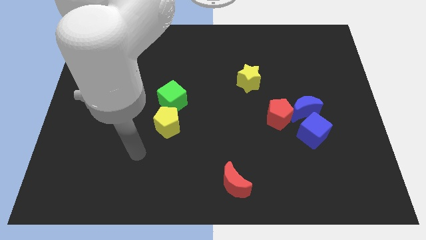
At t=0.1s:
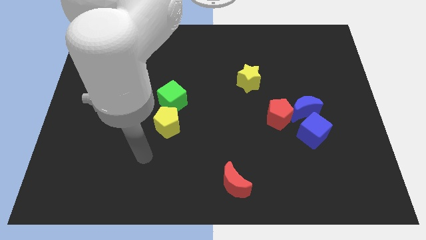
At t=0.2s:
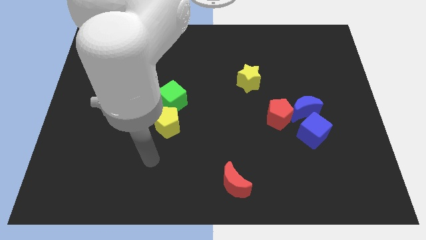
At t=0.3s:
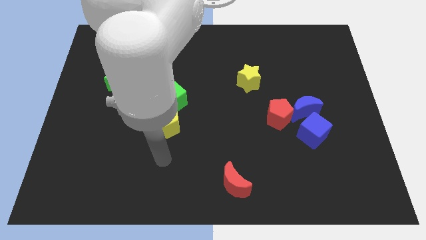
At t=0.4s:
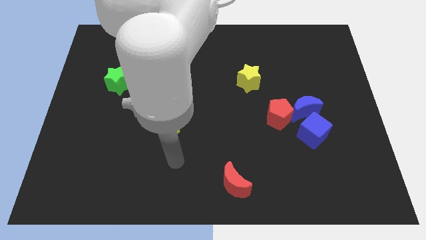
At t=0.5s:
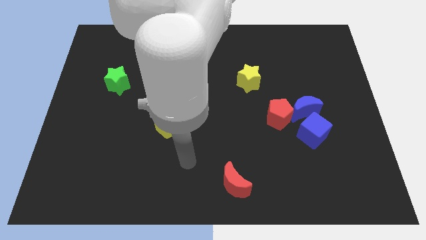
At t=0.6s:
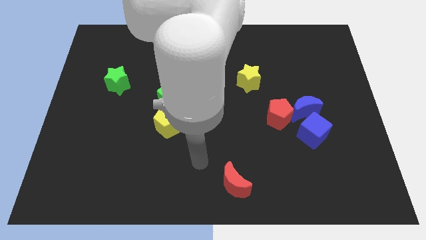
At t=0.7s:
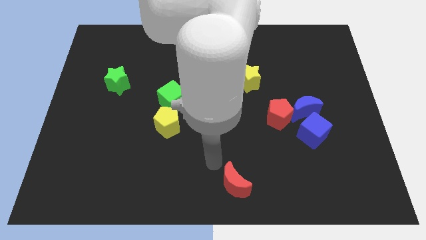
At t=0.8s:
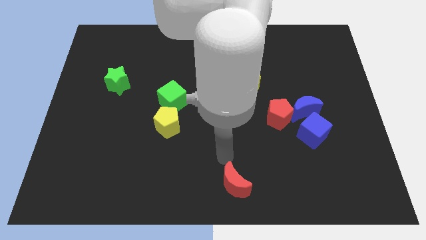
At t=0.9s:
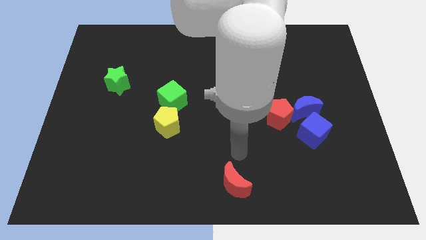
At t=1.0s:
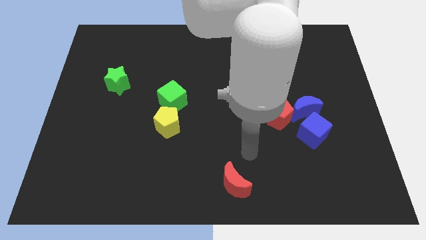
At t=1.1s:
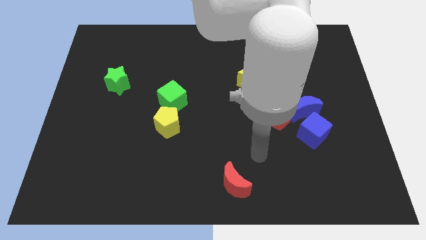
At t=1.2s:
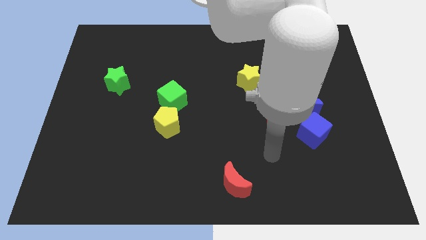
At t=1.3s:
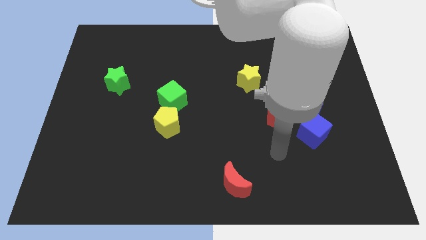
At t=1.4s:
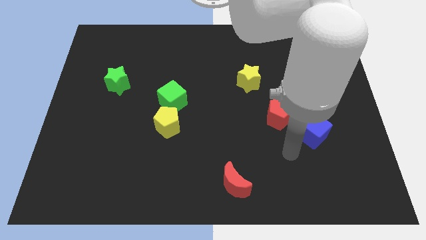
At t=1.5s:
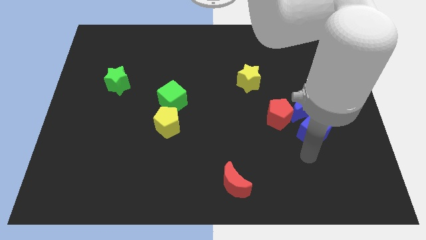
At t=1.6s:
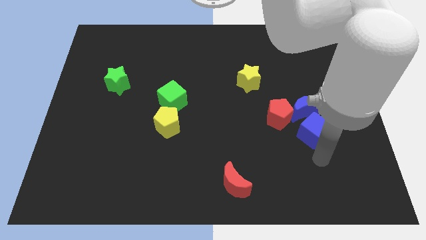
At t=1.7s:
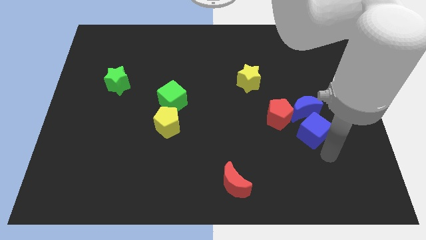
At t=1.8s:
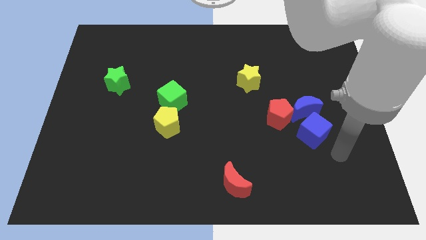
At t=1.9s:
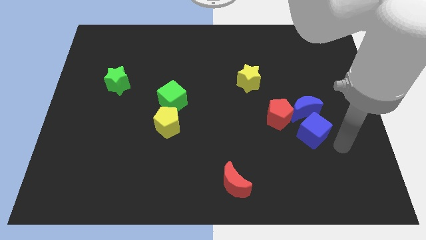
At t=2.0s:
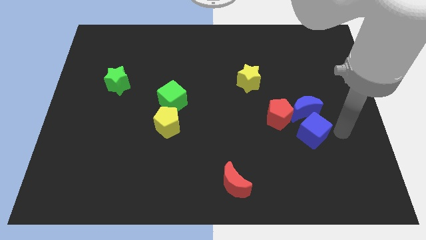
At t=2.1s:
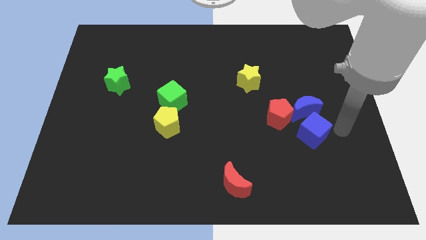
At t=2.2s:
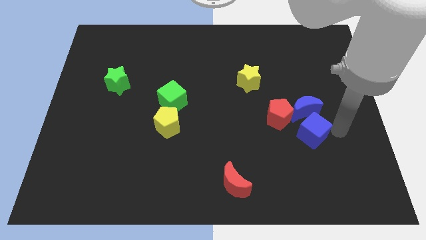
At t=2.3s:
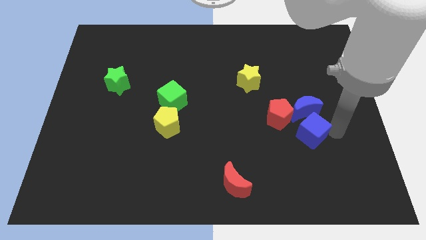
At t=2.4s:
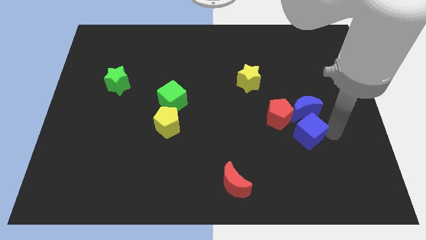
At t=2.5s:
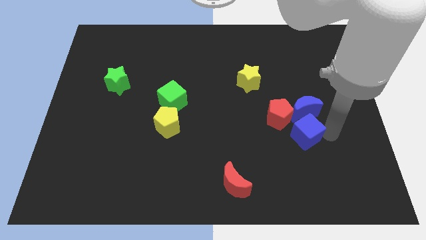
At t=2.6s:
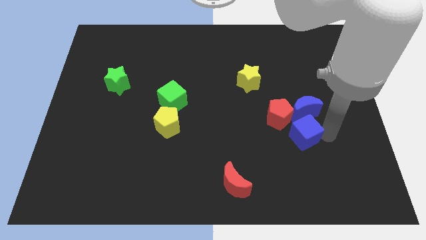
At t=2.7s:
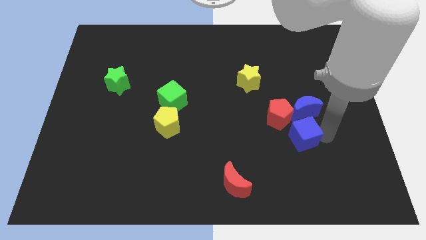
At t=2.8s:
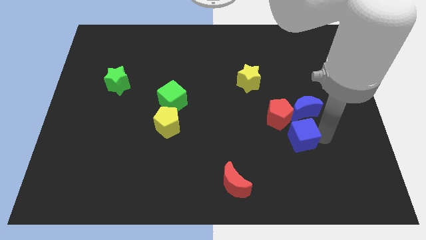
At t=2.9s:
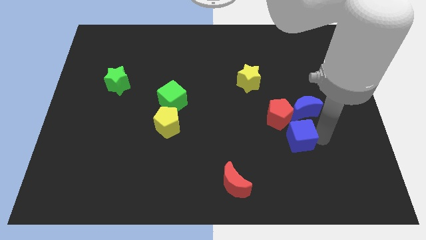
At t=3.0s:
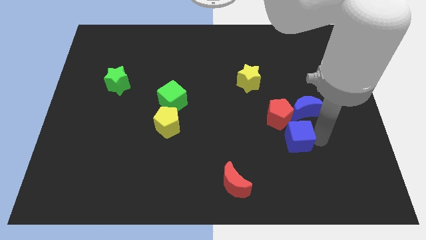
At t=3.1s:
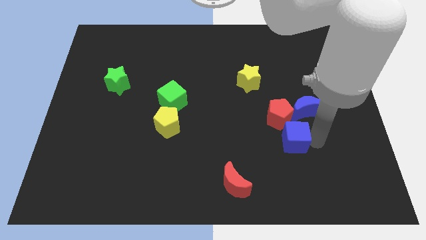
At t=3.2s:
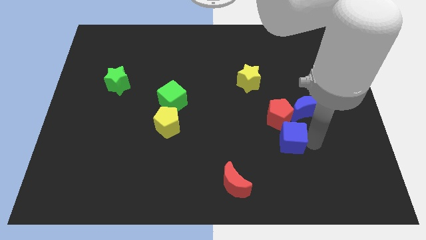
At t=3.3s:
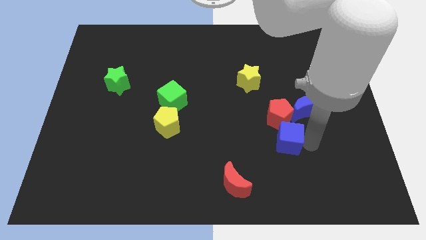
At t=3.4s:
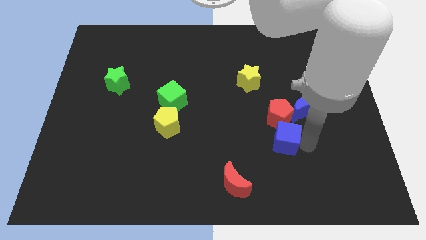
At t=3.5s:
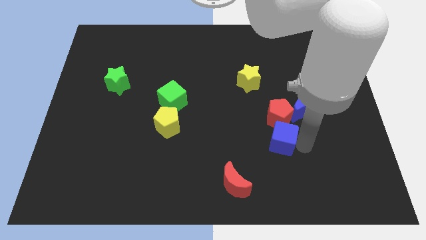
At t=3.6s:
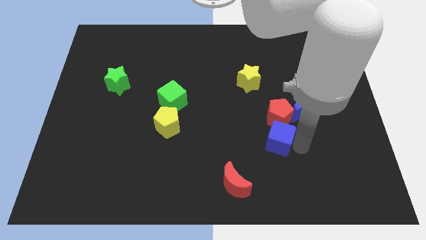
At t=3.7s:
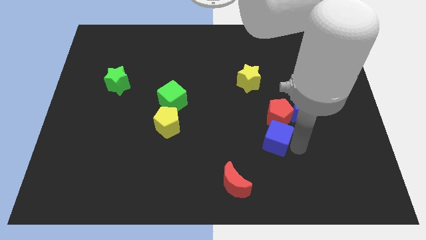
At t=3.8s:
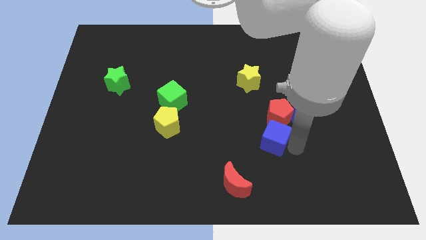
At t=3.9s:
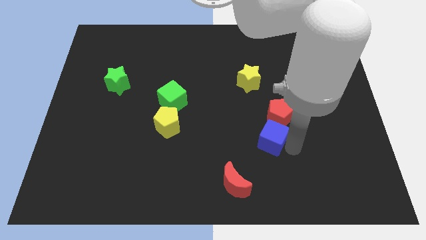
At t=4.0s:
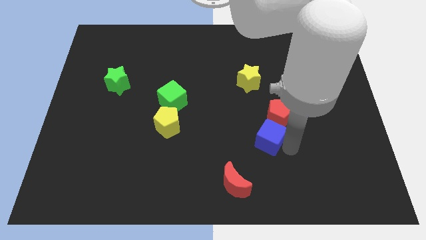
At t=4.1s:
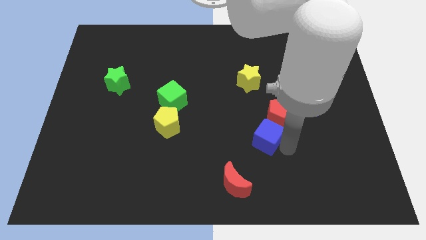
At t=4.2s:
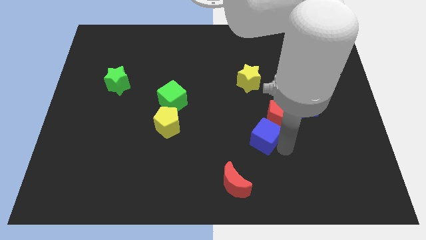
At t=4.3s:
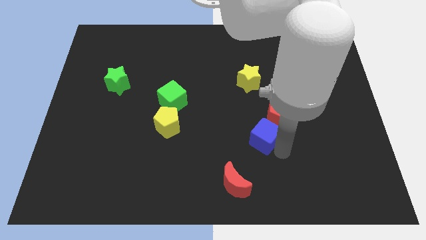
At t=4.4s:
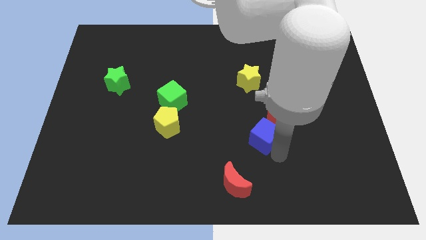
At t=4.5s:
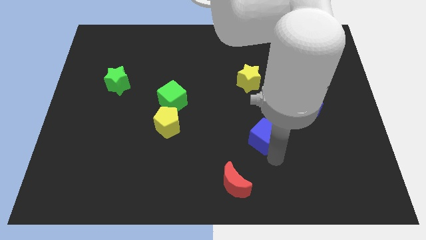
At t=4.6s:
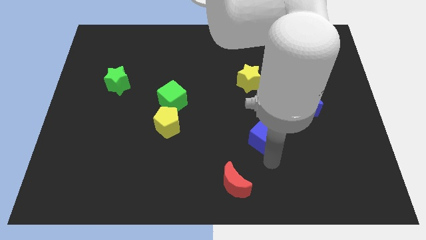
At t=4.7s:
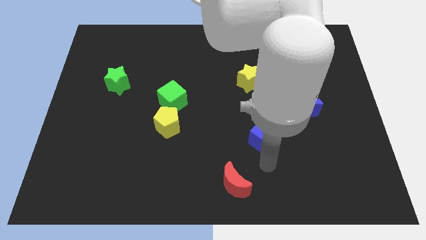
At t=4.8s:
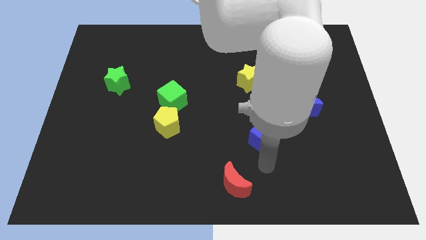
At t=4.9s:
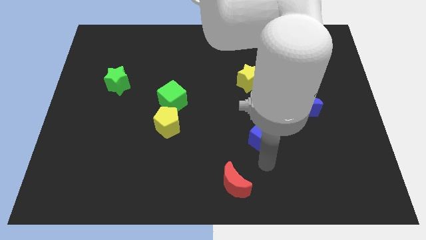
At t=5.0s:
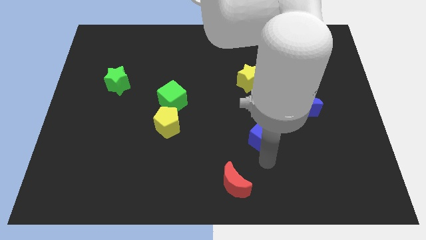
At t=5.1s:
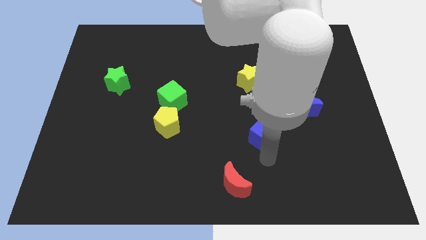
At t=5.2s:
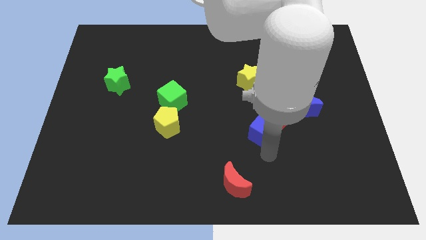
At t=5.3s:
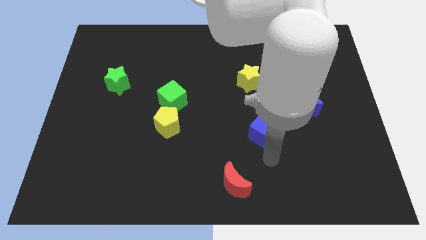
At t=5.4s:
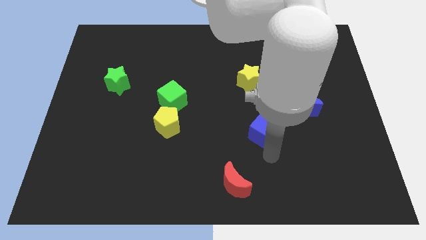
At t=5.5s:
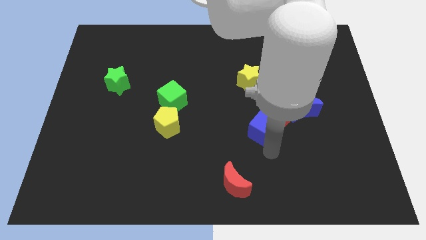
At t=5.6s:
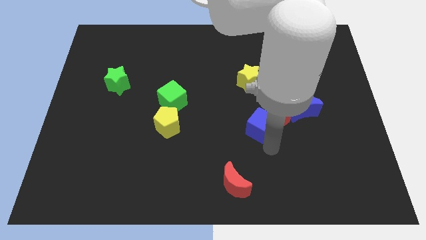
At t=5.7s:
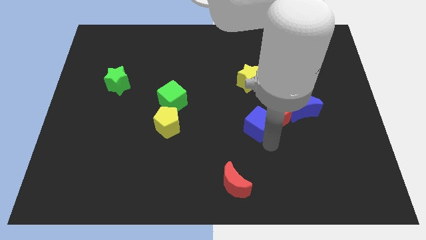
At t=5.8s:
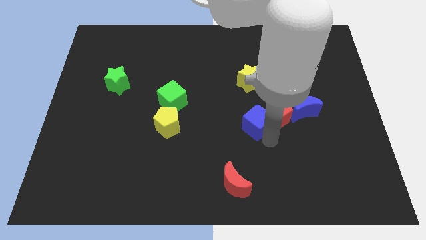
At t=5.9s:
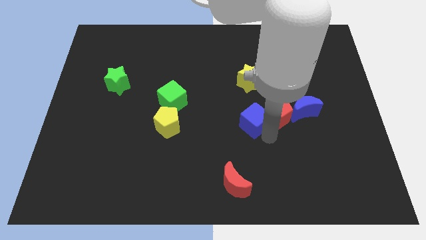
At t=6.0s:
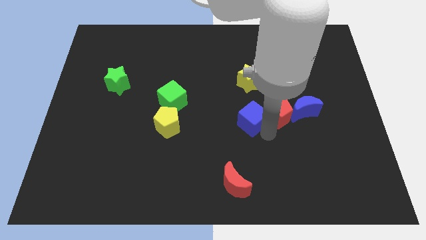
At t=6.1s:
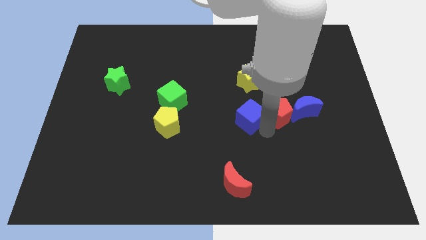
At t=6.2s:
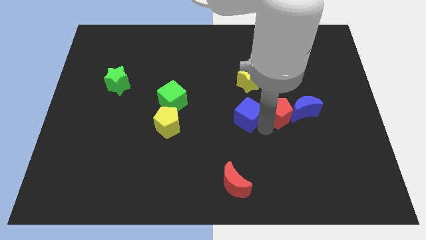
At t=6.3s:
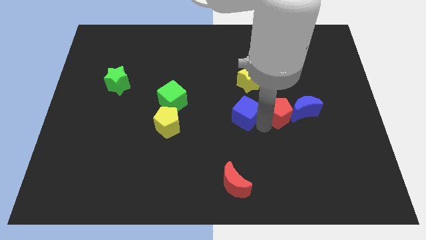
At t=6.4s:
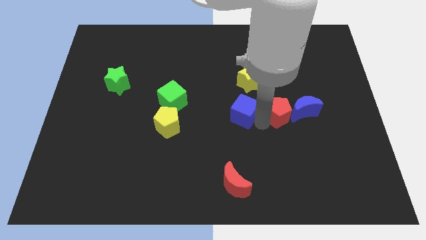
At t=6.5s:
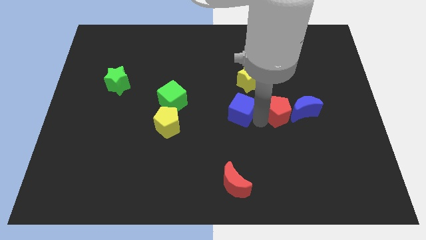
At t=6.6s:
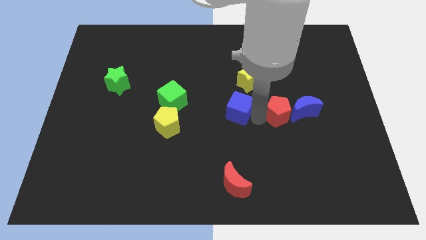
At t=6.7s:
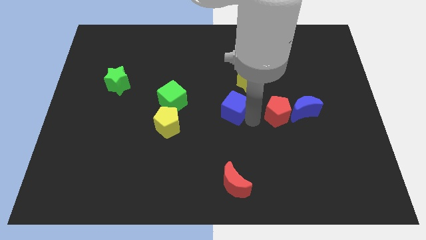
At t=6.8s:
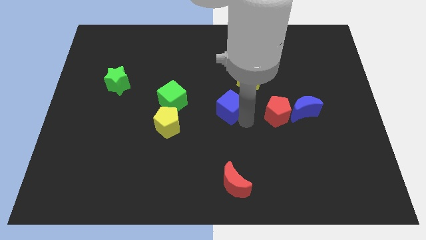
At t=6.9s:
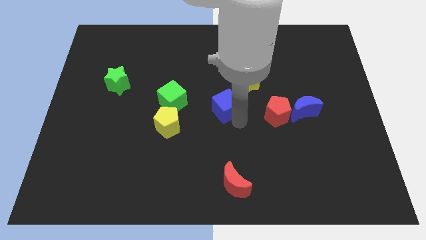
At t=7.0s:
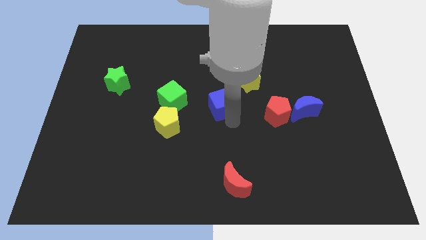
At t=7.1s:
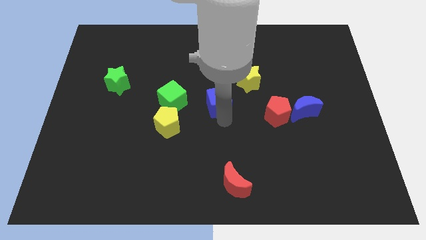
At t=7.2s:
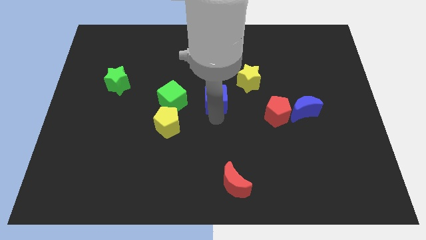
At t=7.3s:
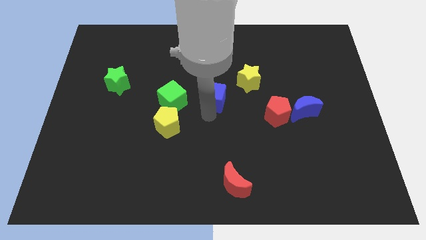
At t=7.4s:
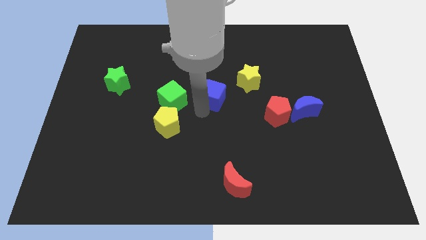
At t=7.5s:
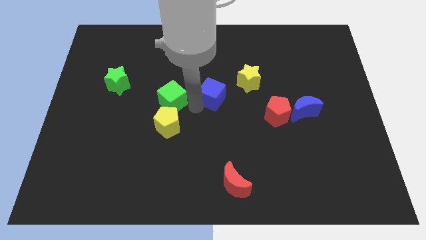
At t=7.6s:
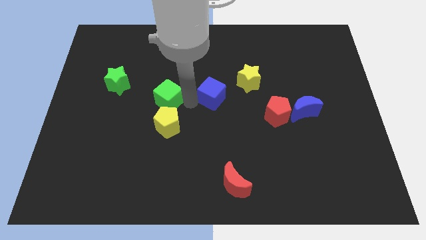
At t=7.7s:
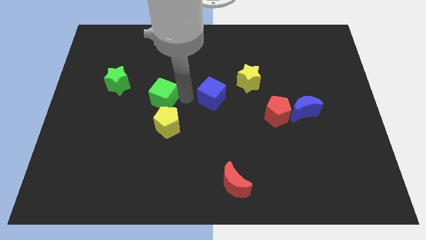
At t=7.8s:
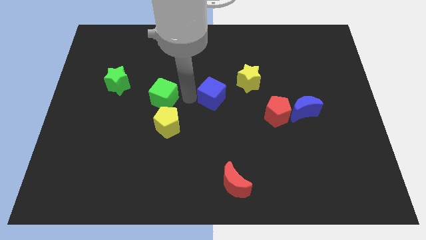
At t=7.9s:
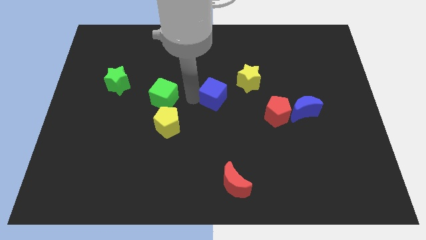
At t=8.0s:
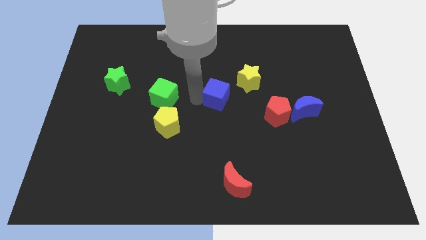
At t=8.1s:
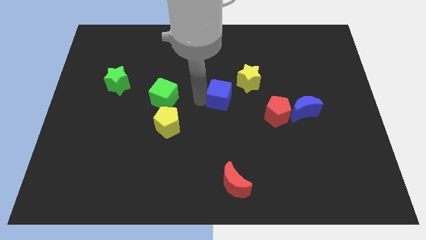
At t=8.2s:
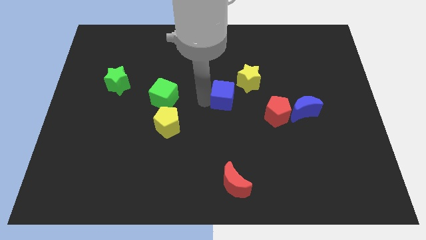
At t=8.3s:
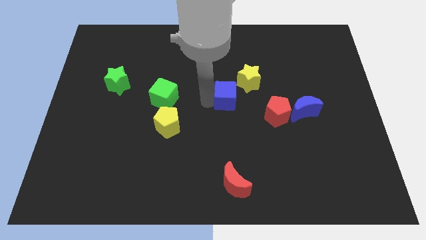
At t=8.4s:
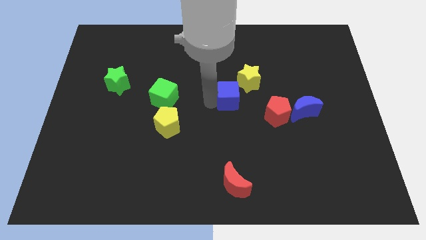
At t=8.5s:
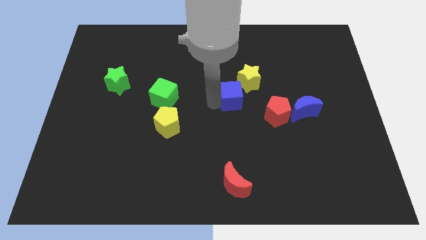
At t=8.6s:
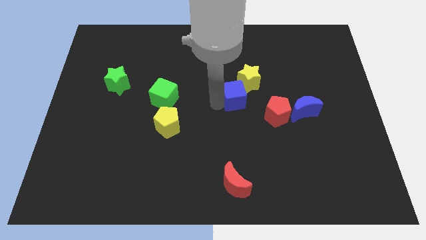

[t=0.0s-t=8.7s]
push the blue cube to the top left of the red pentagon
